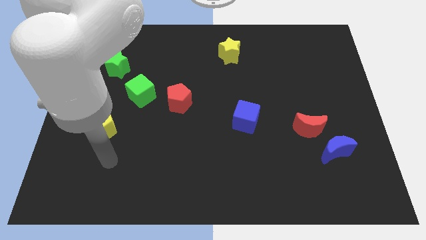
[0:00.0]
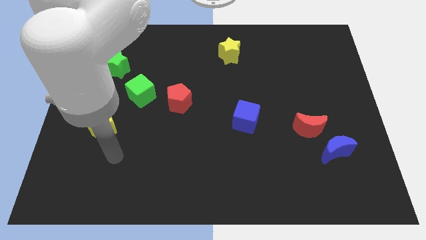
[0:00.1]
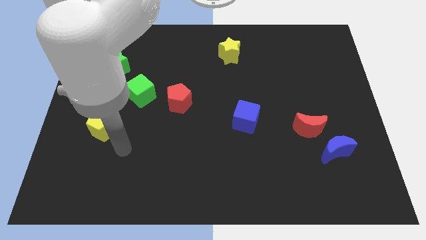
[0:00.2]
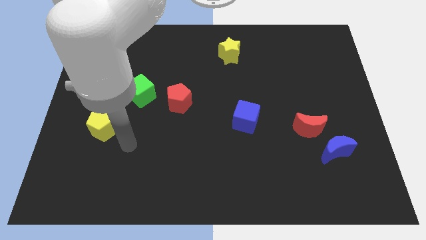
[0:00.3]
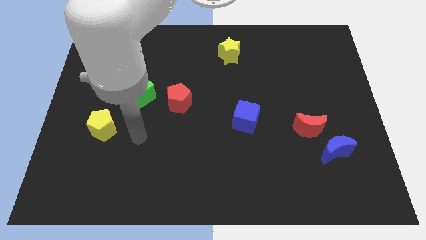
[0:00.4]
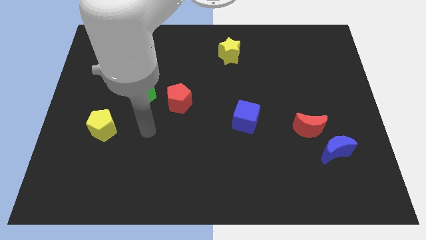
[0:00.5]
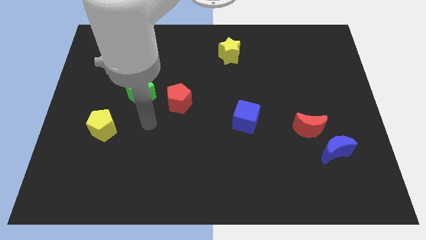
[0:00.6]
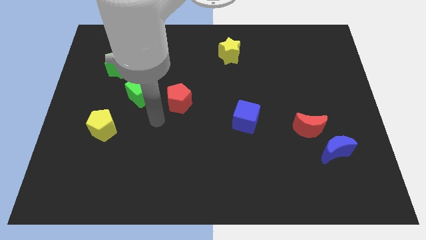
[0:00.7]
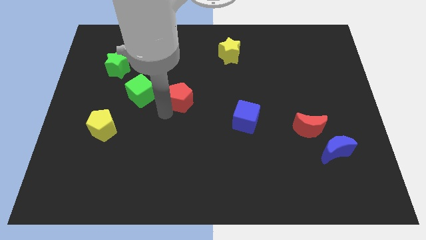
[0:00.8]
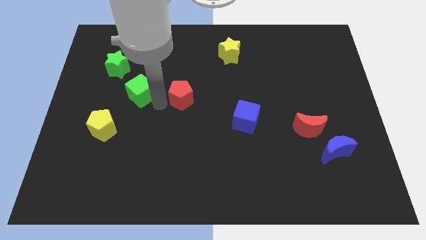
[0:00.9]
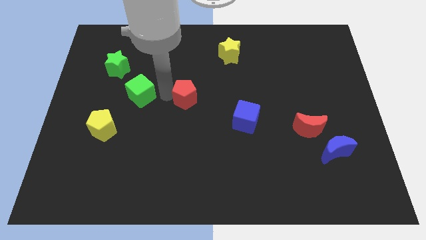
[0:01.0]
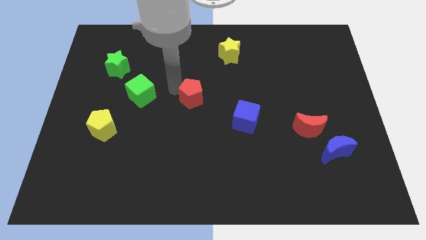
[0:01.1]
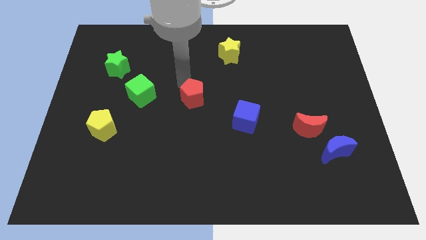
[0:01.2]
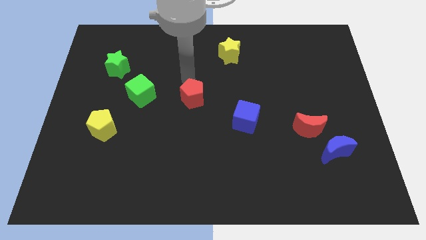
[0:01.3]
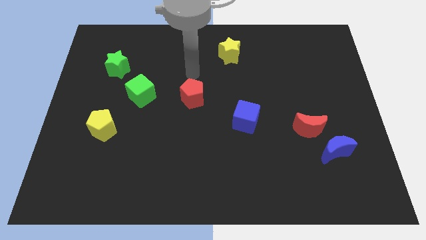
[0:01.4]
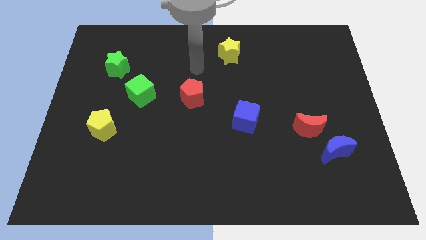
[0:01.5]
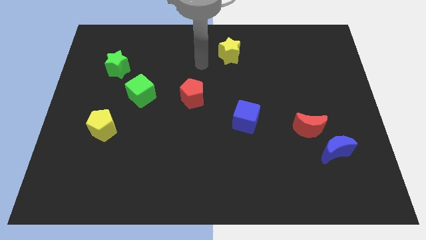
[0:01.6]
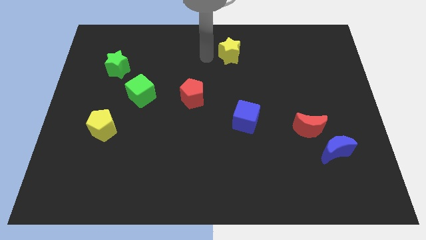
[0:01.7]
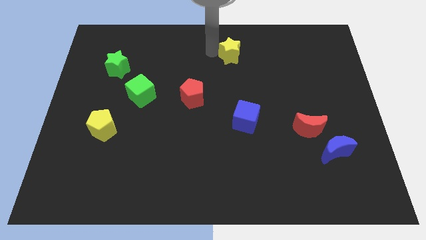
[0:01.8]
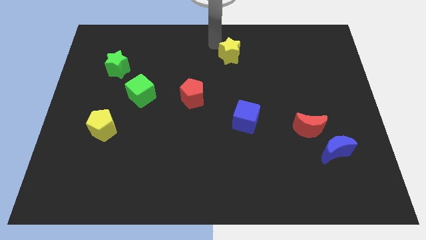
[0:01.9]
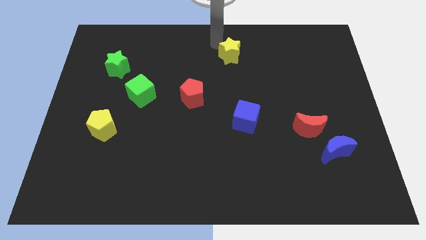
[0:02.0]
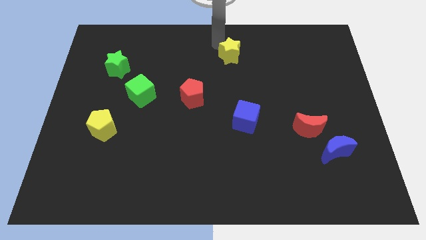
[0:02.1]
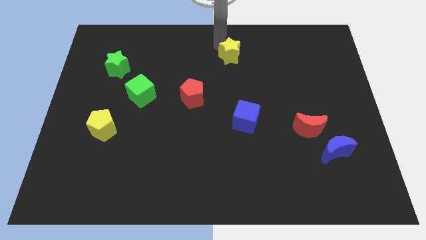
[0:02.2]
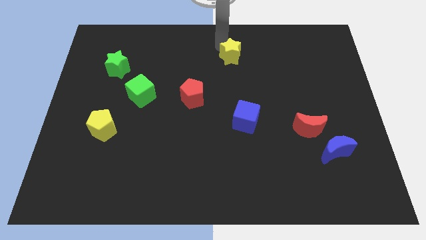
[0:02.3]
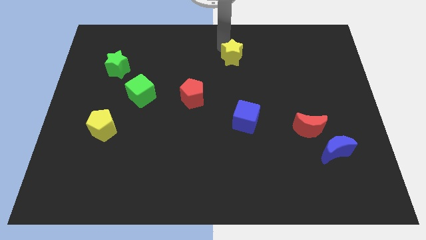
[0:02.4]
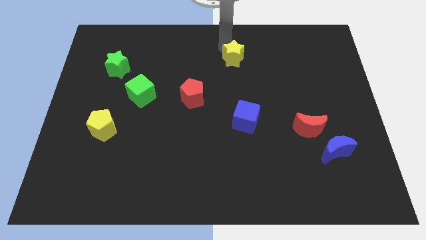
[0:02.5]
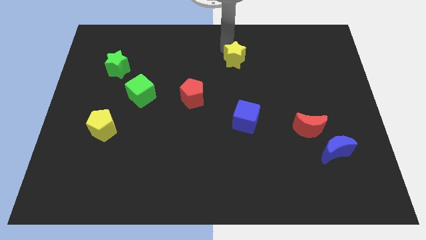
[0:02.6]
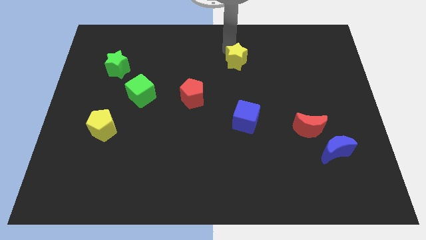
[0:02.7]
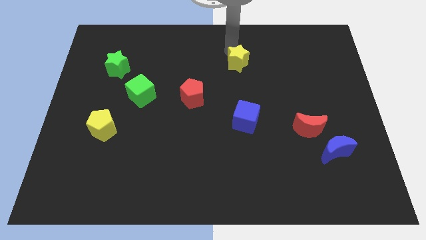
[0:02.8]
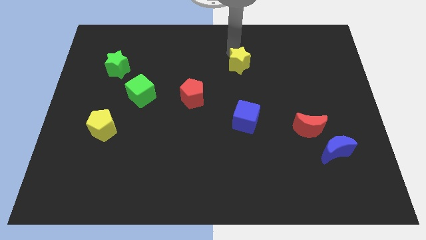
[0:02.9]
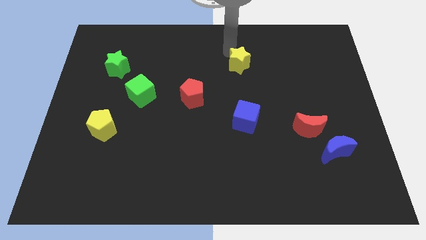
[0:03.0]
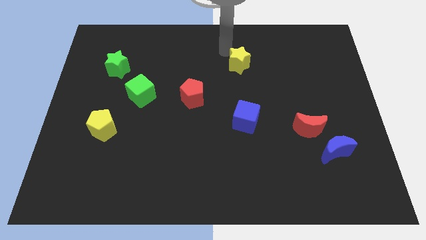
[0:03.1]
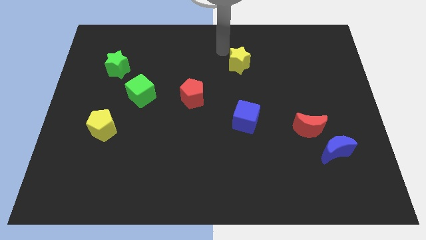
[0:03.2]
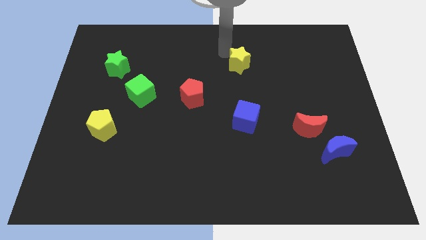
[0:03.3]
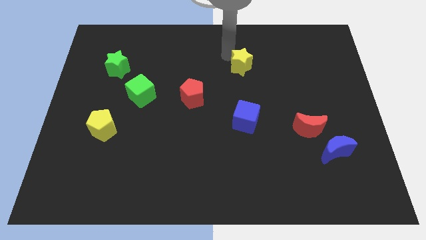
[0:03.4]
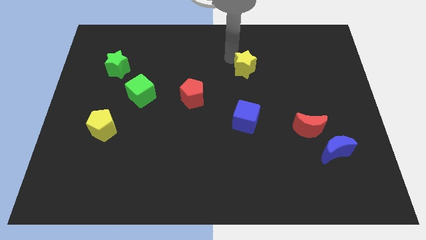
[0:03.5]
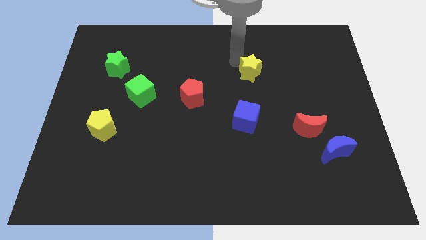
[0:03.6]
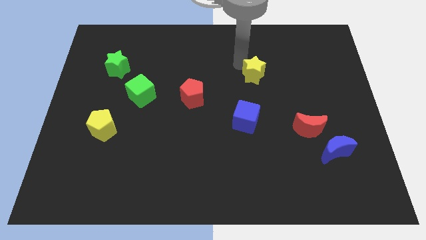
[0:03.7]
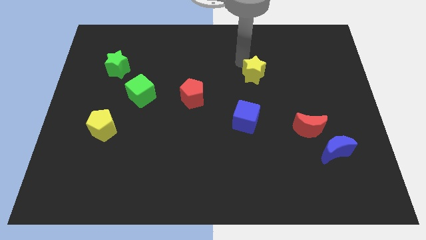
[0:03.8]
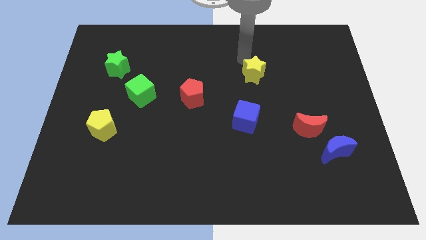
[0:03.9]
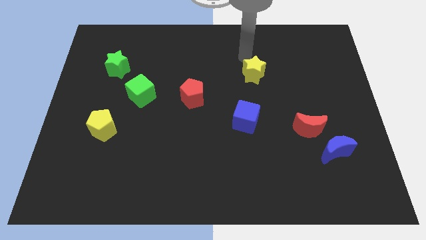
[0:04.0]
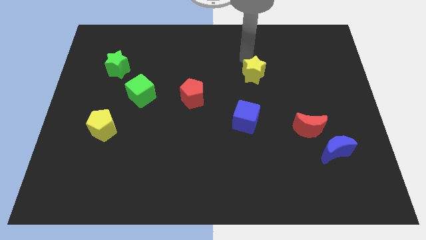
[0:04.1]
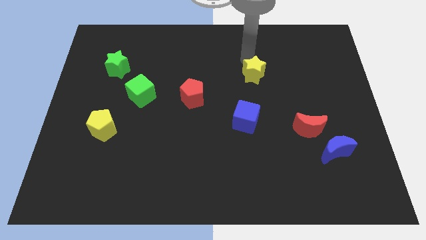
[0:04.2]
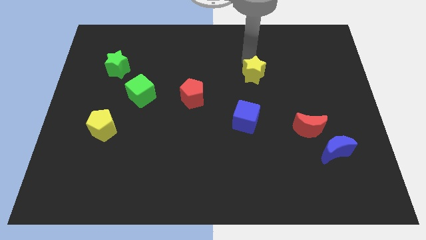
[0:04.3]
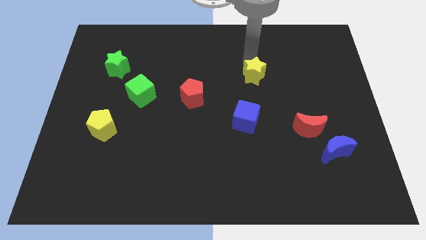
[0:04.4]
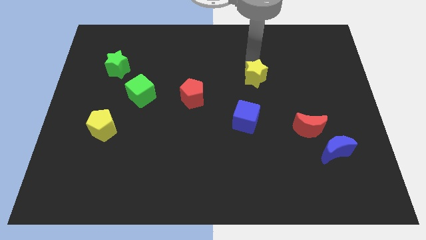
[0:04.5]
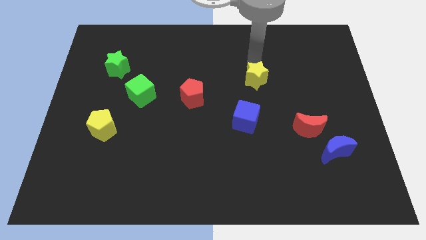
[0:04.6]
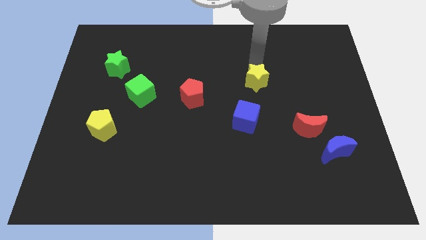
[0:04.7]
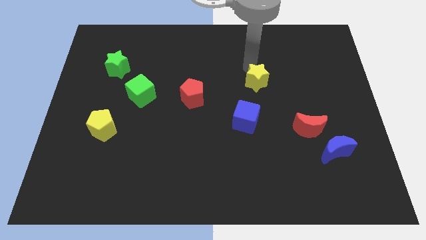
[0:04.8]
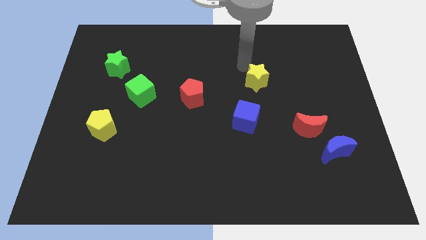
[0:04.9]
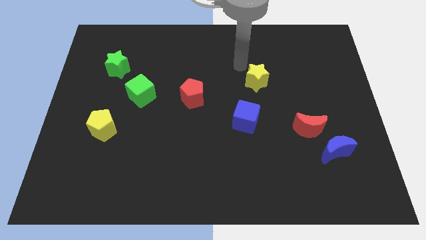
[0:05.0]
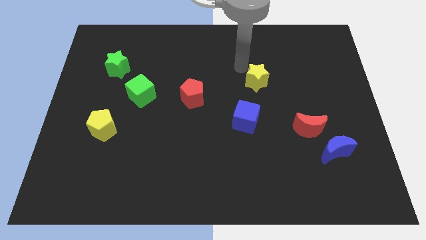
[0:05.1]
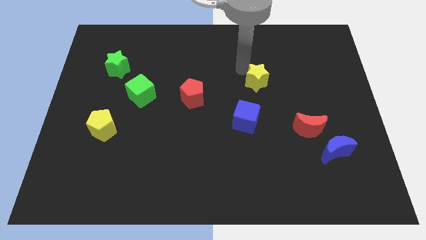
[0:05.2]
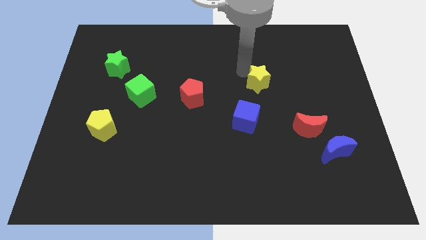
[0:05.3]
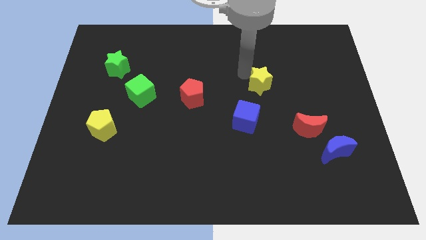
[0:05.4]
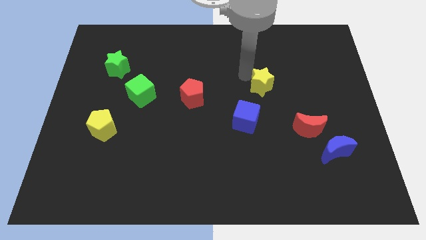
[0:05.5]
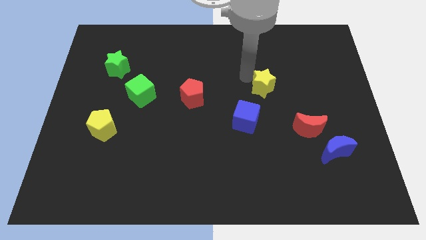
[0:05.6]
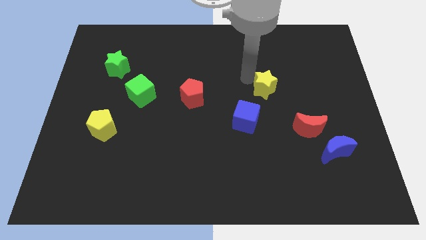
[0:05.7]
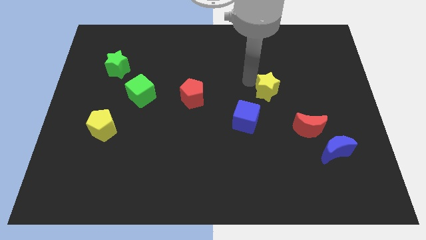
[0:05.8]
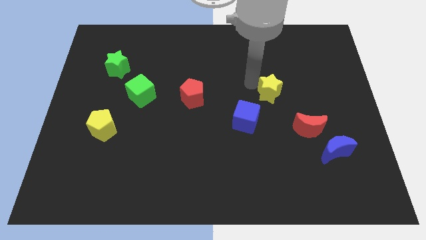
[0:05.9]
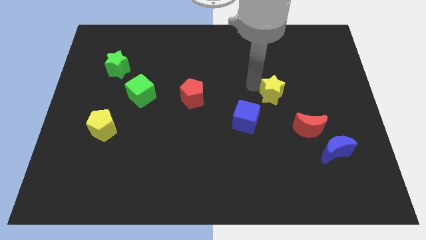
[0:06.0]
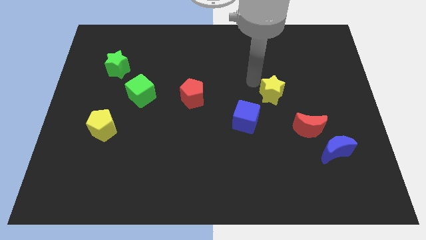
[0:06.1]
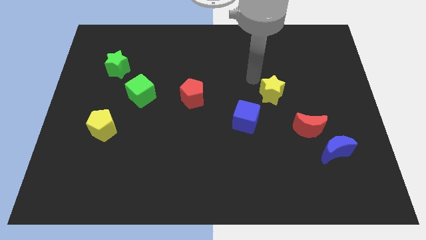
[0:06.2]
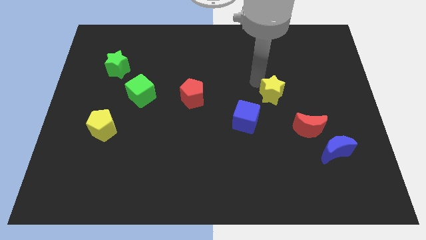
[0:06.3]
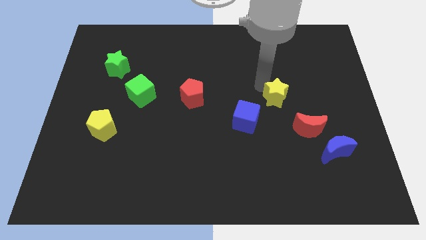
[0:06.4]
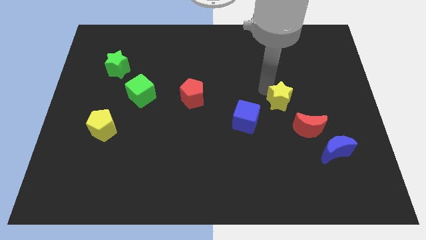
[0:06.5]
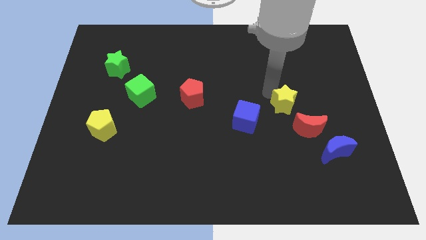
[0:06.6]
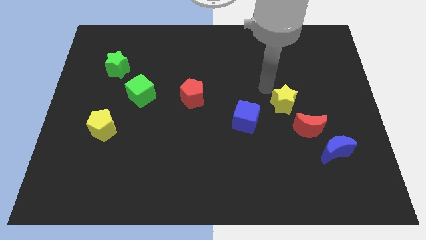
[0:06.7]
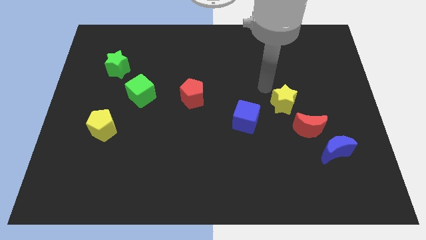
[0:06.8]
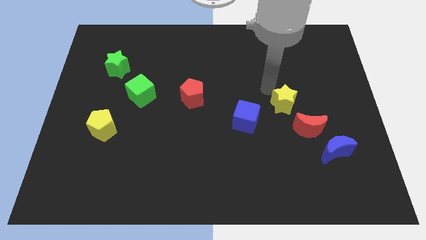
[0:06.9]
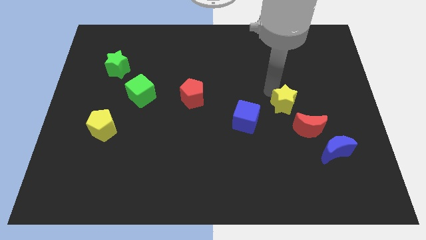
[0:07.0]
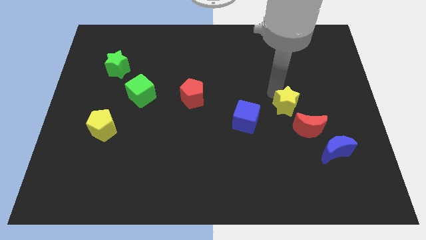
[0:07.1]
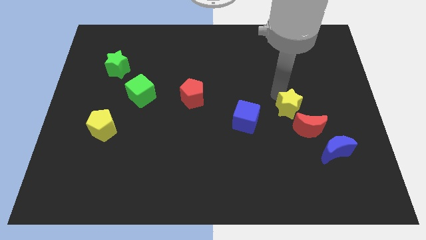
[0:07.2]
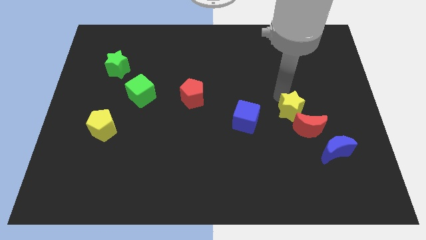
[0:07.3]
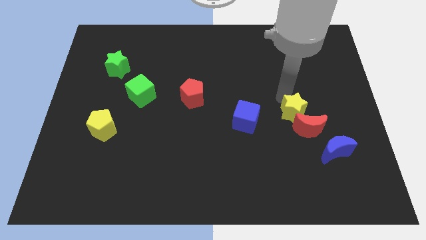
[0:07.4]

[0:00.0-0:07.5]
put the yellow star to the red moon
